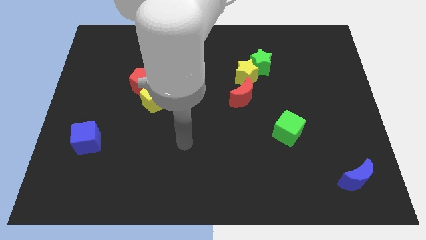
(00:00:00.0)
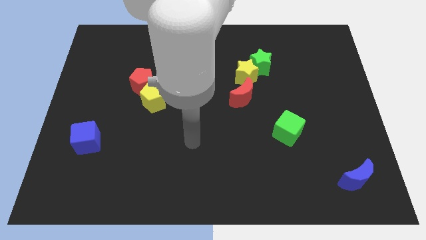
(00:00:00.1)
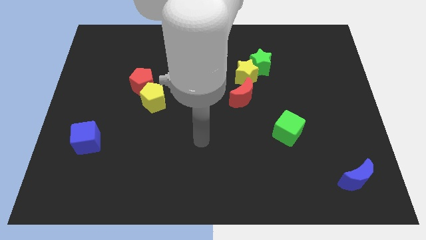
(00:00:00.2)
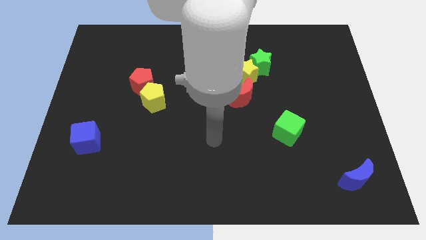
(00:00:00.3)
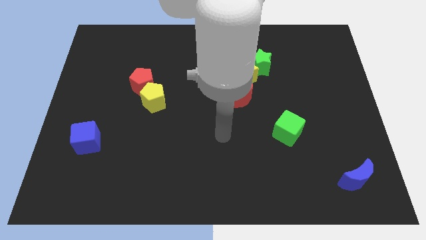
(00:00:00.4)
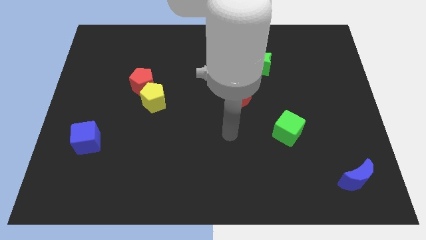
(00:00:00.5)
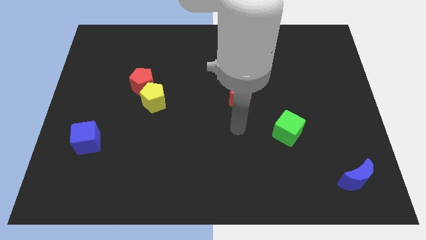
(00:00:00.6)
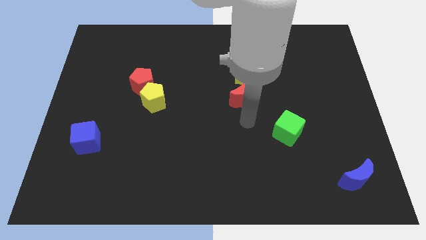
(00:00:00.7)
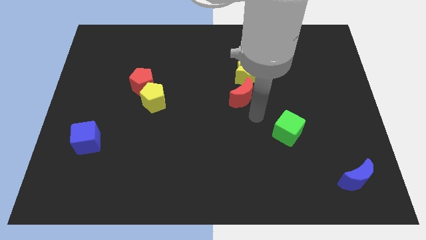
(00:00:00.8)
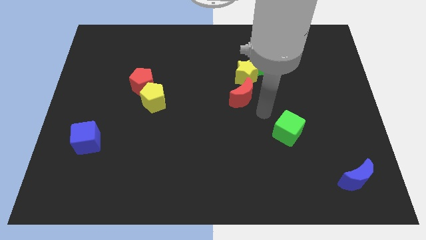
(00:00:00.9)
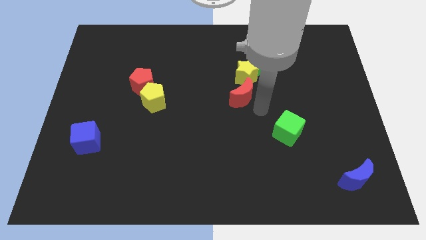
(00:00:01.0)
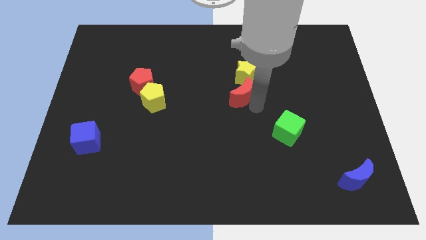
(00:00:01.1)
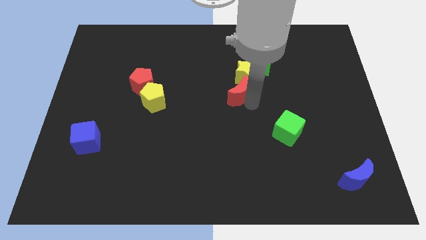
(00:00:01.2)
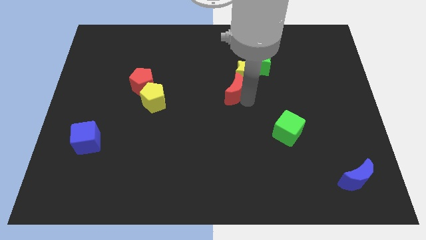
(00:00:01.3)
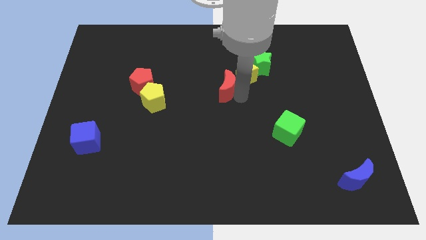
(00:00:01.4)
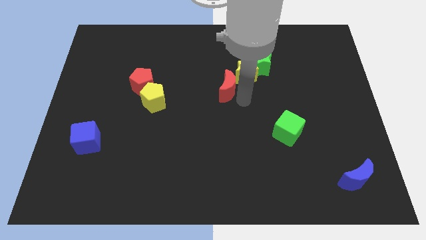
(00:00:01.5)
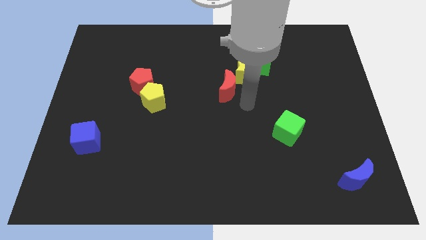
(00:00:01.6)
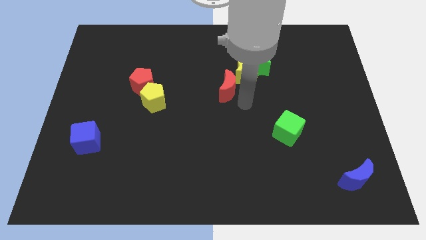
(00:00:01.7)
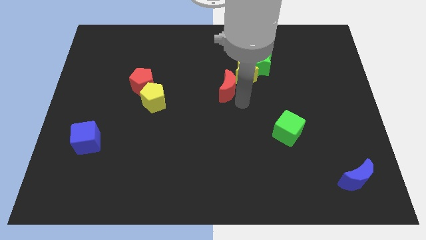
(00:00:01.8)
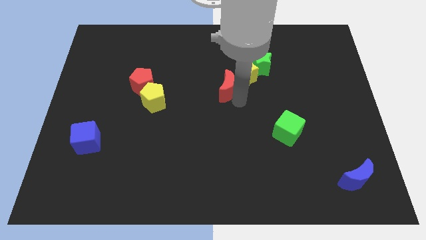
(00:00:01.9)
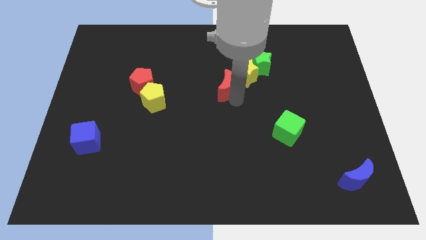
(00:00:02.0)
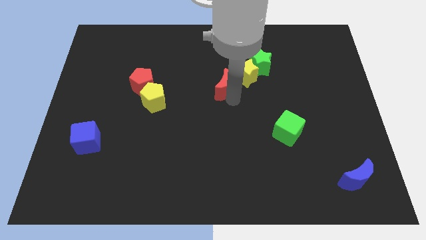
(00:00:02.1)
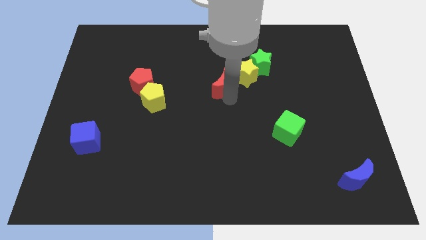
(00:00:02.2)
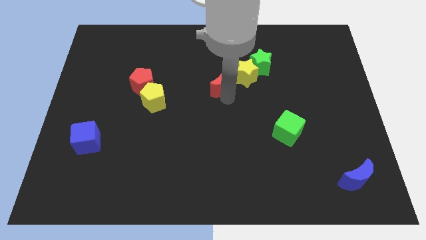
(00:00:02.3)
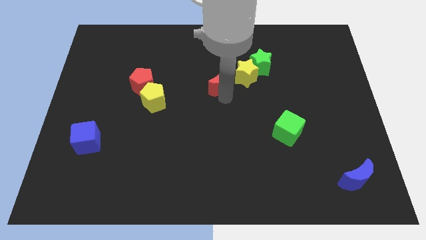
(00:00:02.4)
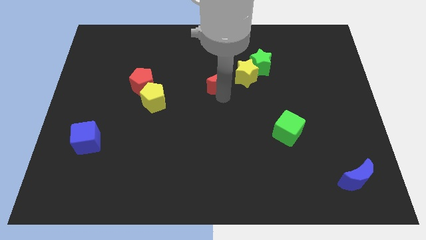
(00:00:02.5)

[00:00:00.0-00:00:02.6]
move the red moon a little up and to the left diagonally

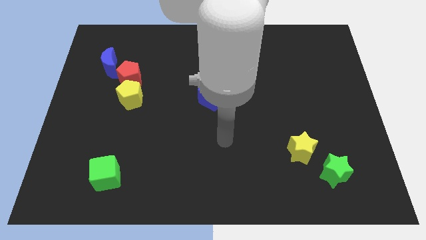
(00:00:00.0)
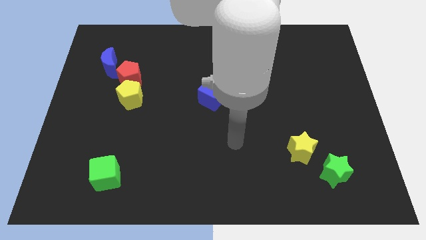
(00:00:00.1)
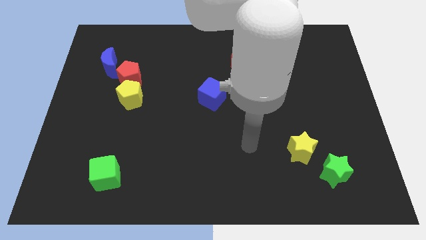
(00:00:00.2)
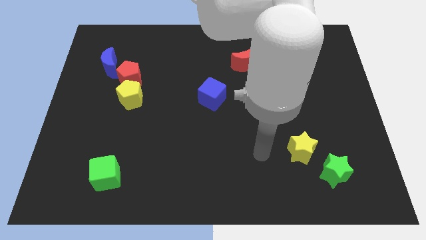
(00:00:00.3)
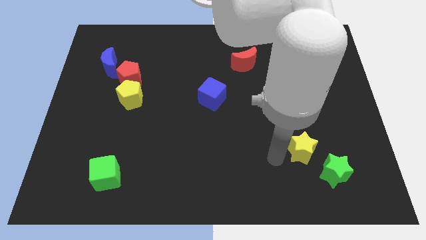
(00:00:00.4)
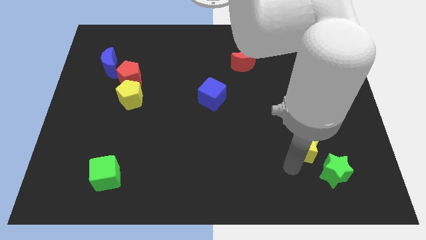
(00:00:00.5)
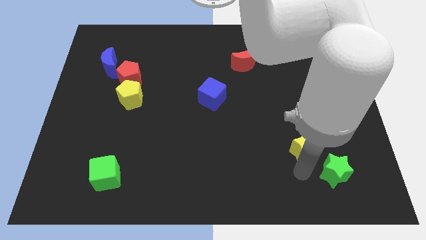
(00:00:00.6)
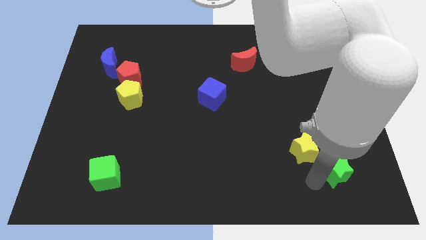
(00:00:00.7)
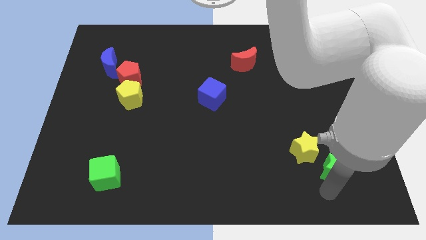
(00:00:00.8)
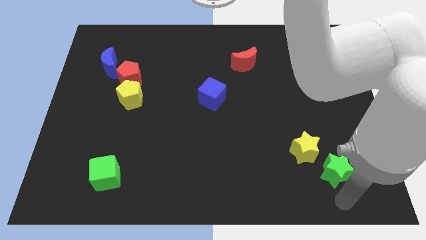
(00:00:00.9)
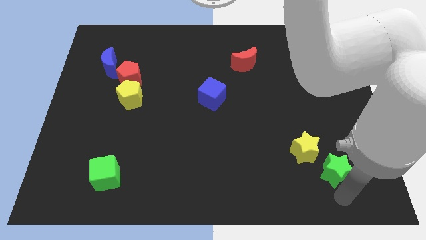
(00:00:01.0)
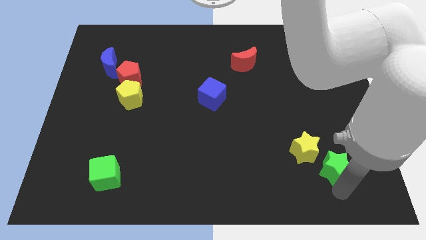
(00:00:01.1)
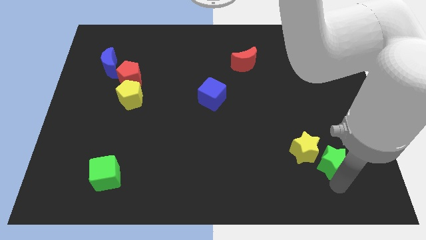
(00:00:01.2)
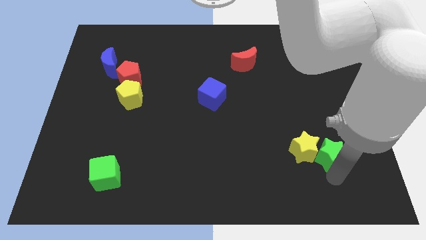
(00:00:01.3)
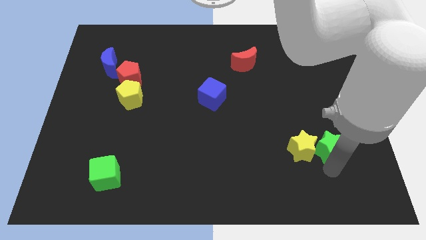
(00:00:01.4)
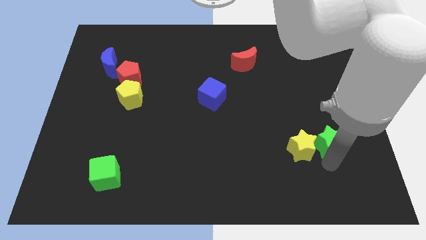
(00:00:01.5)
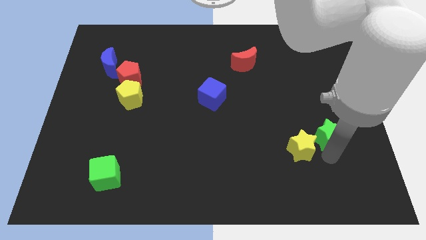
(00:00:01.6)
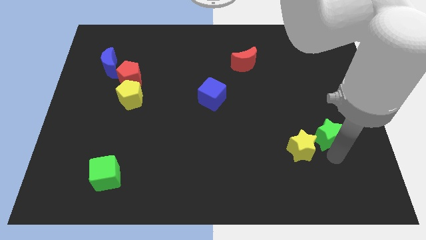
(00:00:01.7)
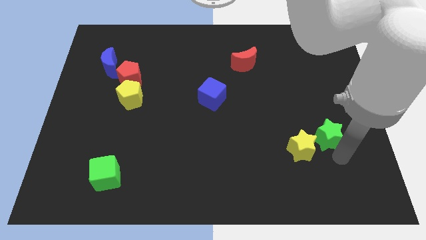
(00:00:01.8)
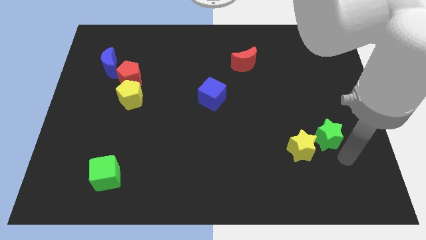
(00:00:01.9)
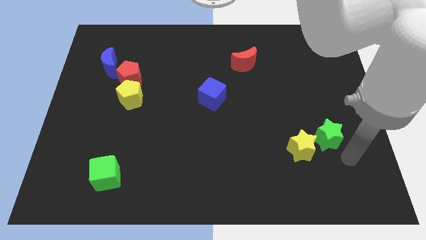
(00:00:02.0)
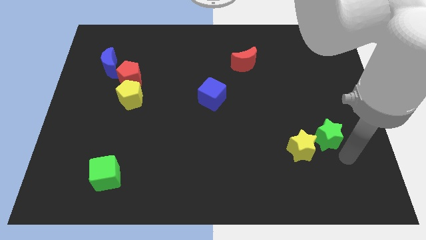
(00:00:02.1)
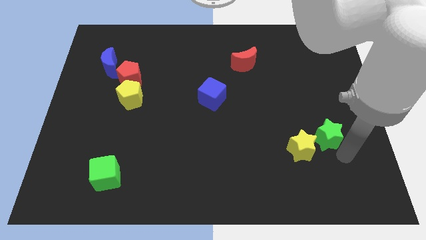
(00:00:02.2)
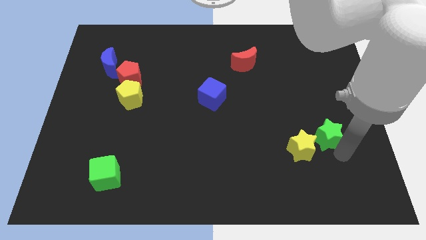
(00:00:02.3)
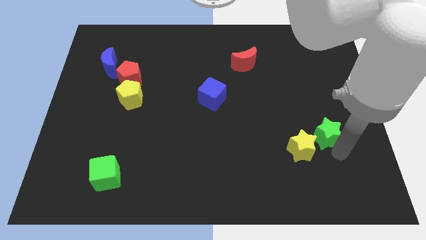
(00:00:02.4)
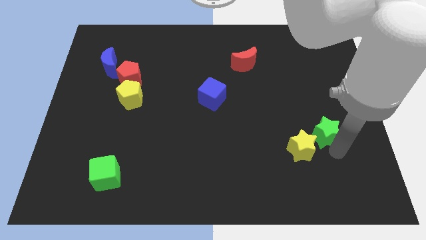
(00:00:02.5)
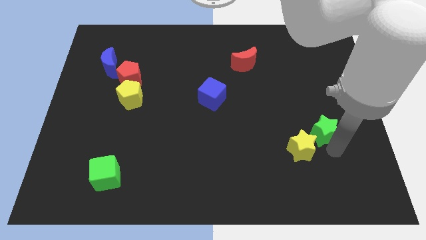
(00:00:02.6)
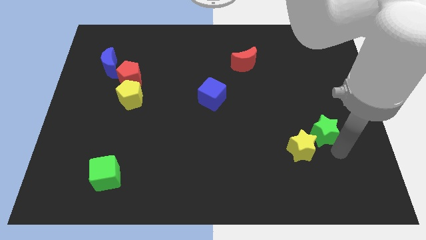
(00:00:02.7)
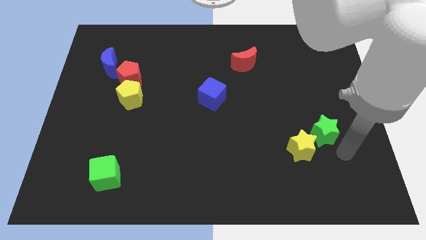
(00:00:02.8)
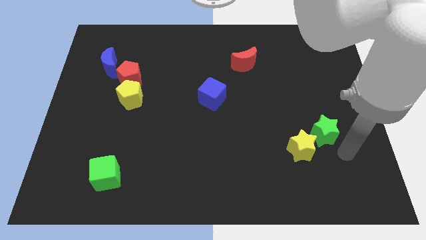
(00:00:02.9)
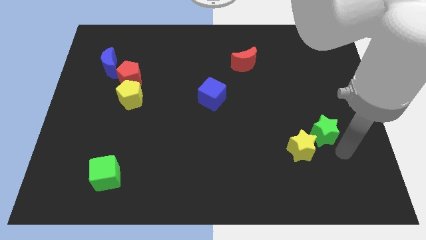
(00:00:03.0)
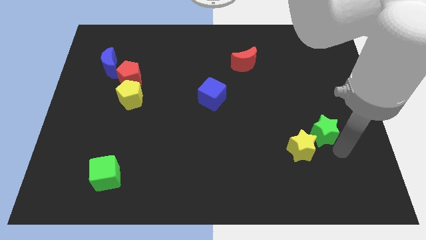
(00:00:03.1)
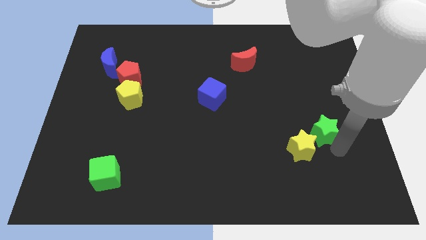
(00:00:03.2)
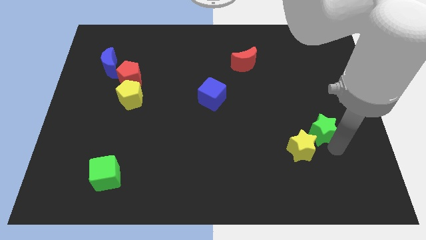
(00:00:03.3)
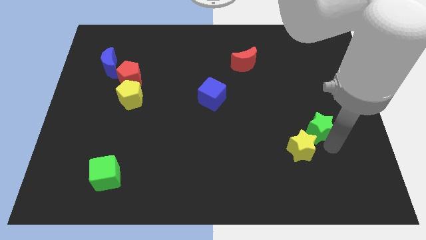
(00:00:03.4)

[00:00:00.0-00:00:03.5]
move the green star diagonally upwards and left slightly

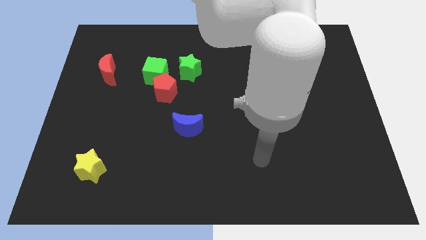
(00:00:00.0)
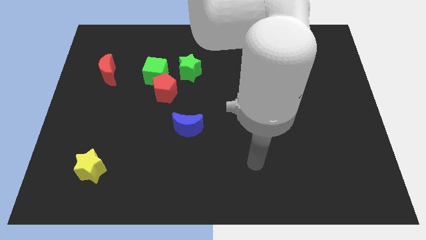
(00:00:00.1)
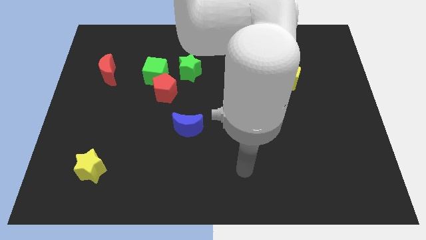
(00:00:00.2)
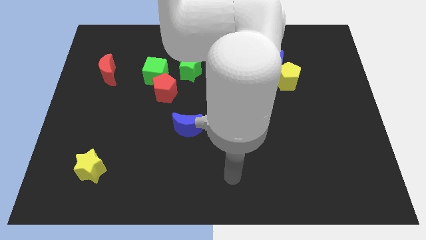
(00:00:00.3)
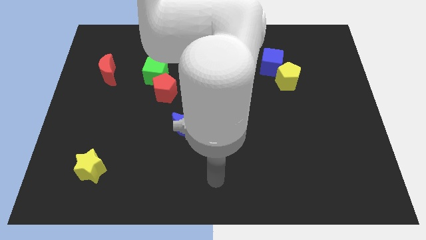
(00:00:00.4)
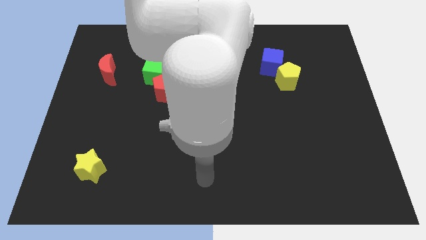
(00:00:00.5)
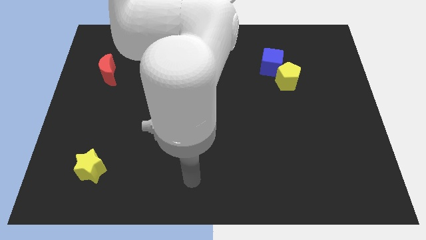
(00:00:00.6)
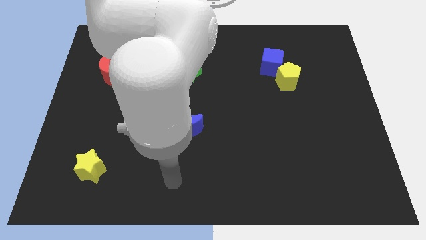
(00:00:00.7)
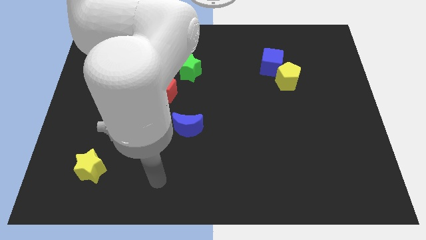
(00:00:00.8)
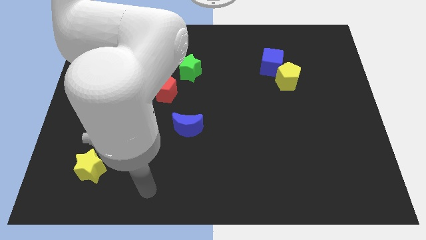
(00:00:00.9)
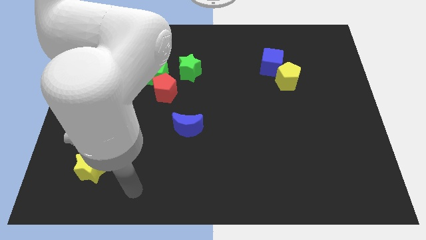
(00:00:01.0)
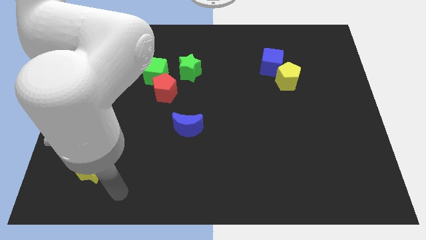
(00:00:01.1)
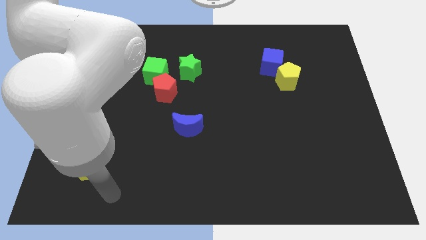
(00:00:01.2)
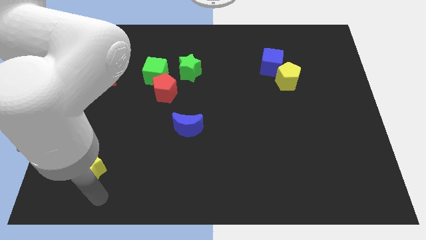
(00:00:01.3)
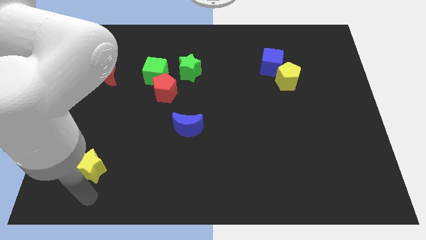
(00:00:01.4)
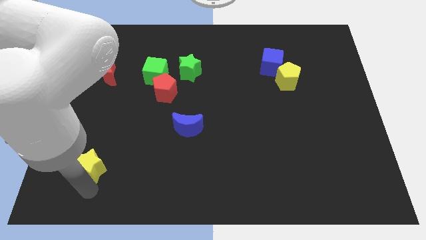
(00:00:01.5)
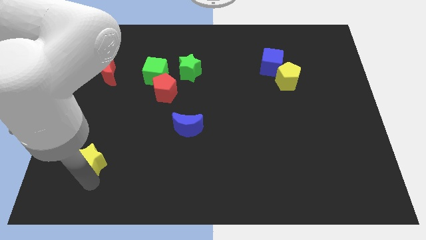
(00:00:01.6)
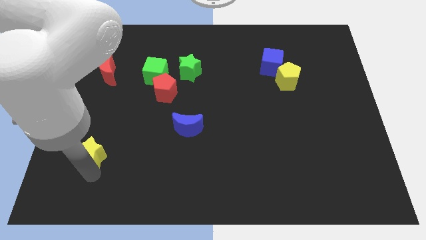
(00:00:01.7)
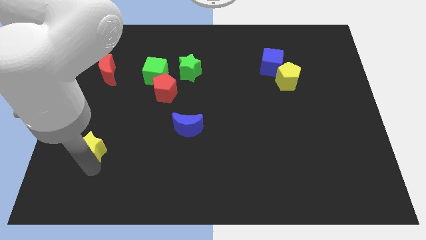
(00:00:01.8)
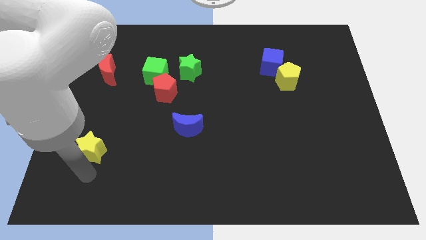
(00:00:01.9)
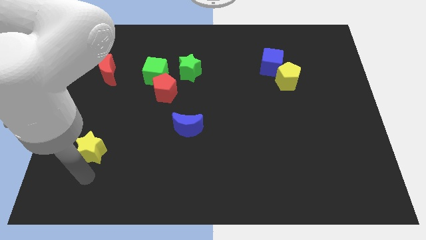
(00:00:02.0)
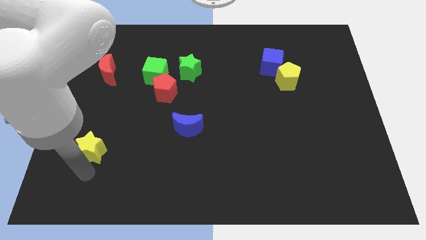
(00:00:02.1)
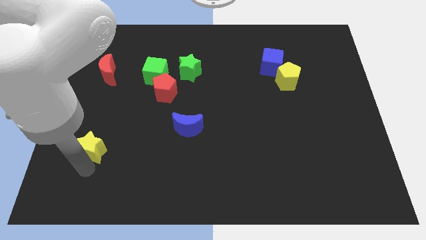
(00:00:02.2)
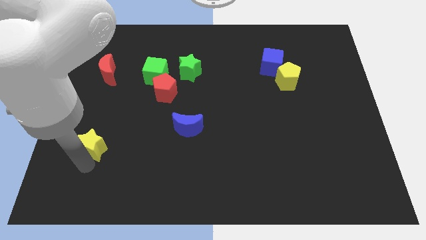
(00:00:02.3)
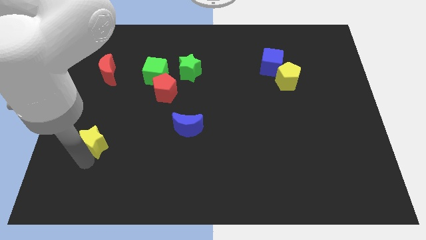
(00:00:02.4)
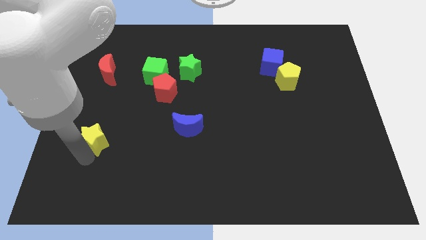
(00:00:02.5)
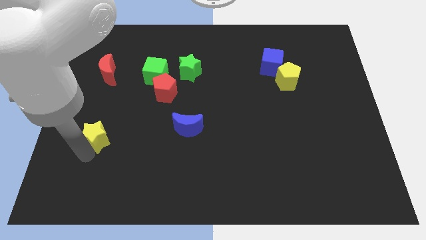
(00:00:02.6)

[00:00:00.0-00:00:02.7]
slide the yellow star up slightly
